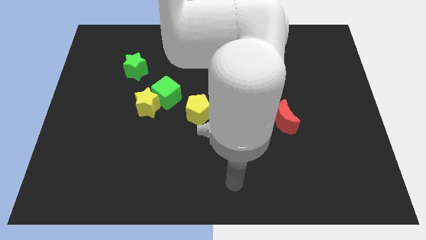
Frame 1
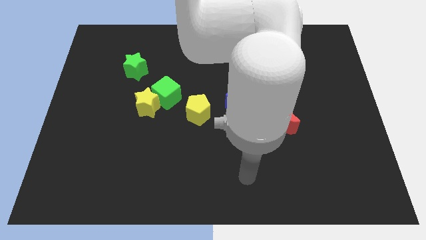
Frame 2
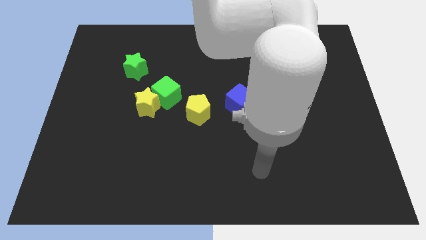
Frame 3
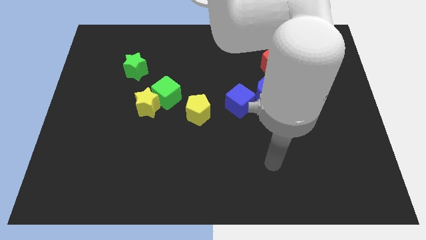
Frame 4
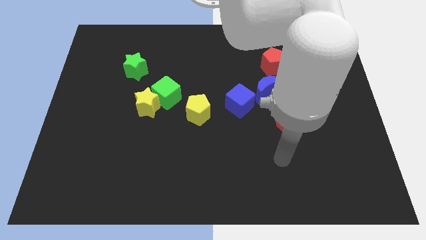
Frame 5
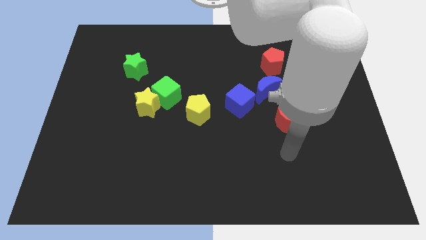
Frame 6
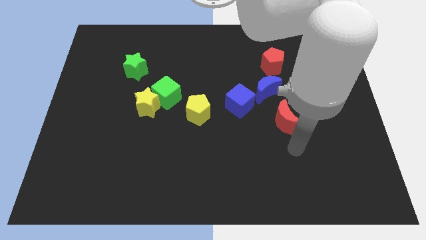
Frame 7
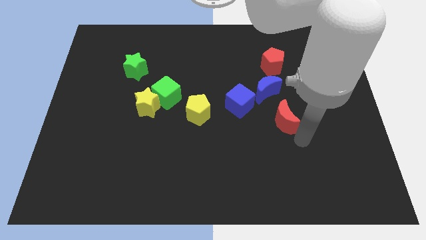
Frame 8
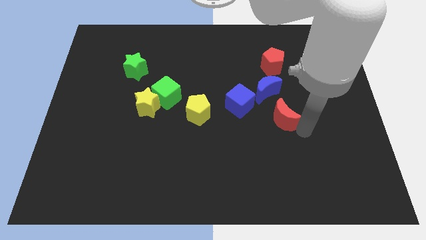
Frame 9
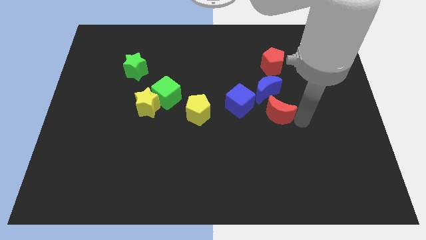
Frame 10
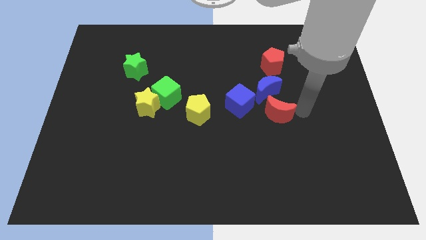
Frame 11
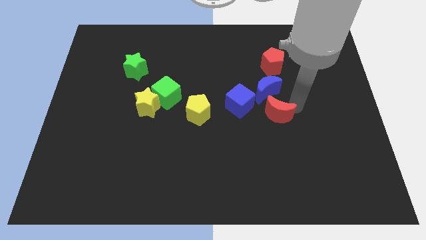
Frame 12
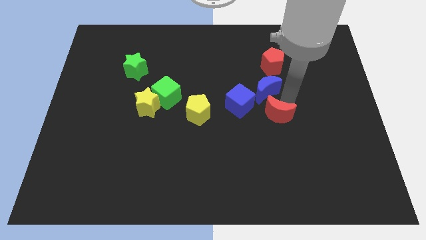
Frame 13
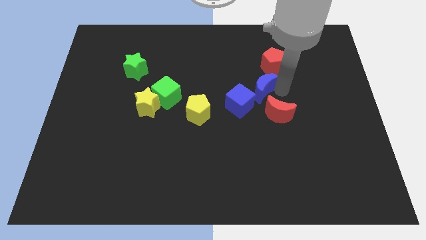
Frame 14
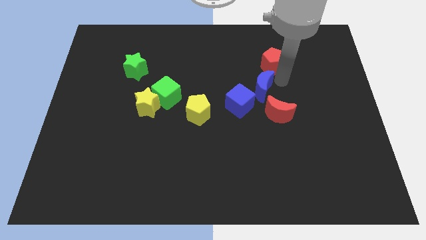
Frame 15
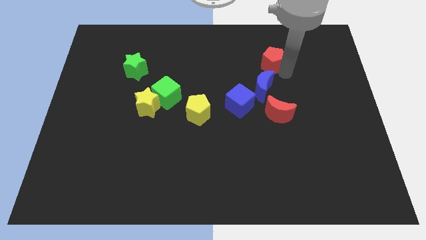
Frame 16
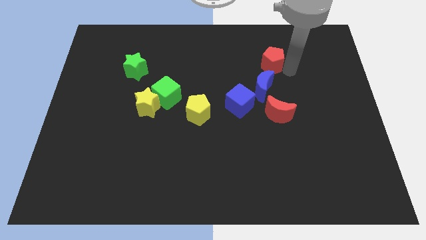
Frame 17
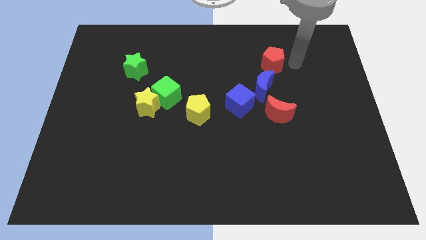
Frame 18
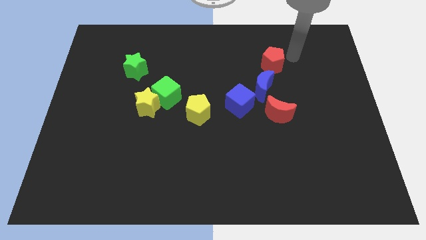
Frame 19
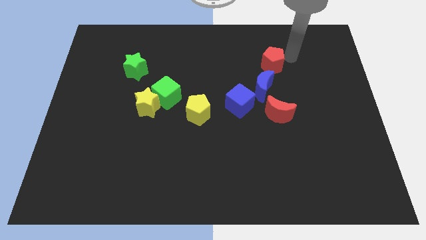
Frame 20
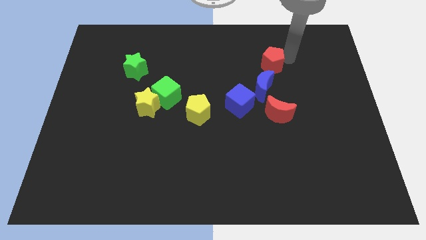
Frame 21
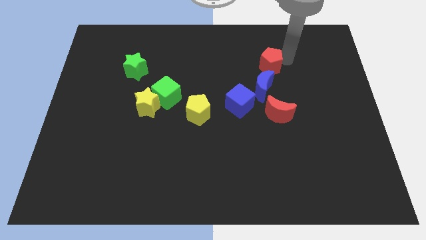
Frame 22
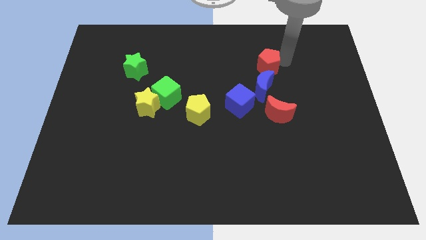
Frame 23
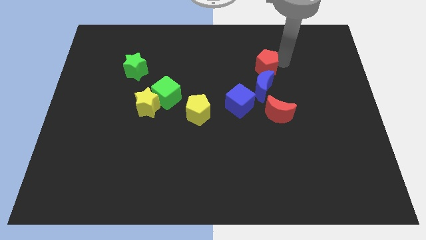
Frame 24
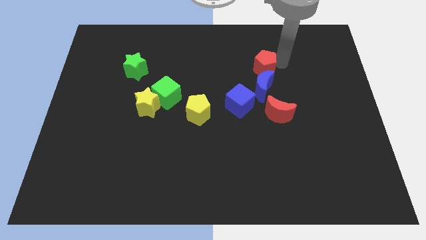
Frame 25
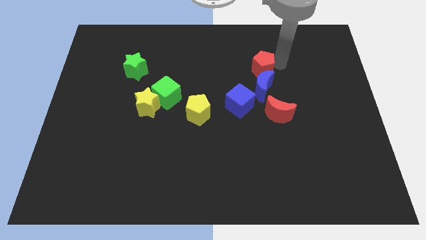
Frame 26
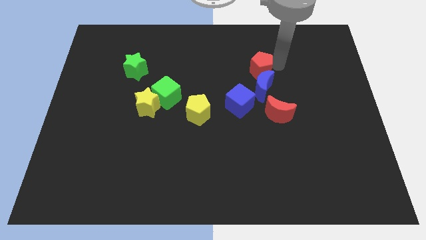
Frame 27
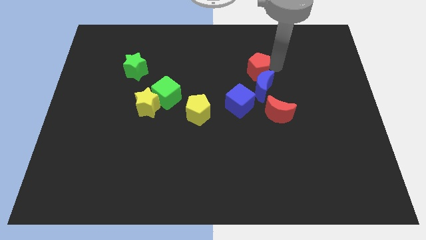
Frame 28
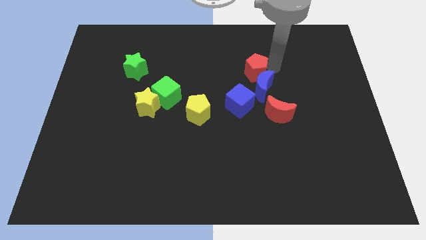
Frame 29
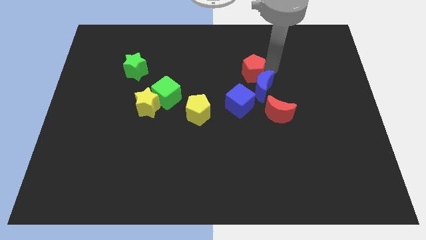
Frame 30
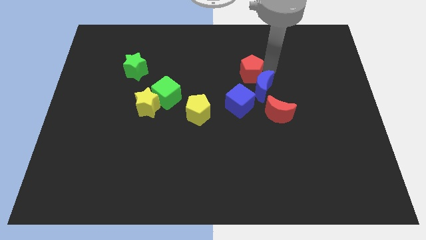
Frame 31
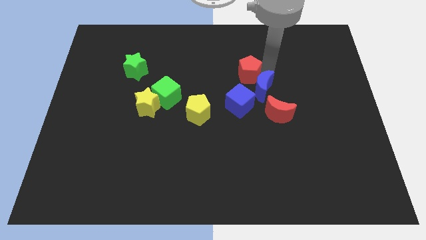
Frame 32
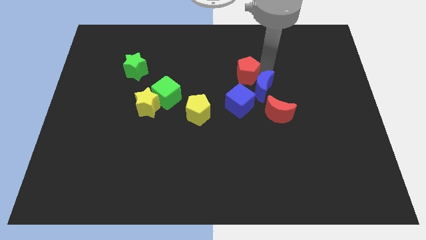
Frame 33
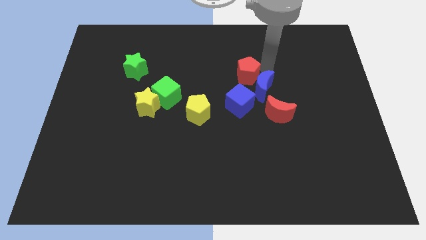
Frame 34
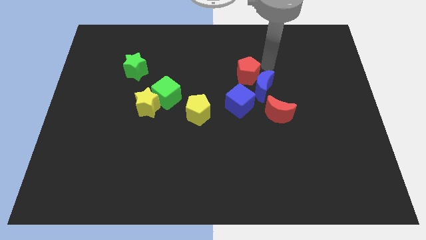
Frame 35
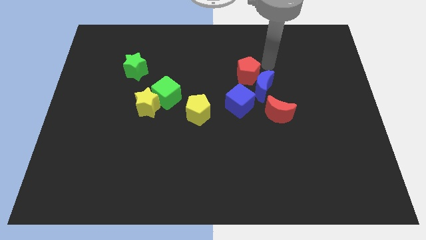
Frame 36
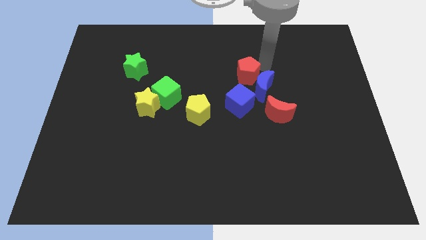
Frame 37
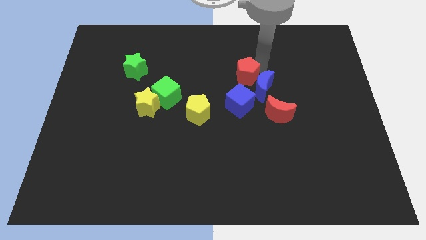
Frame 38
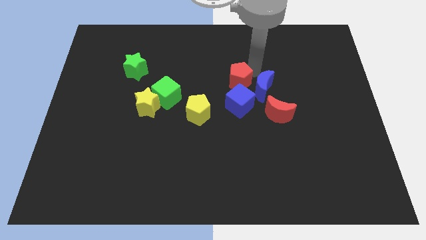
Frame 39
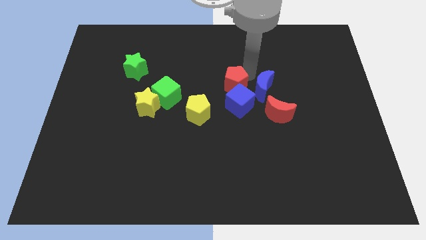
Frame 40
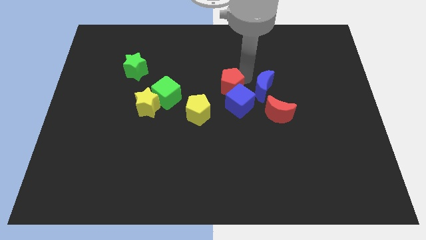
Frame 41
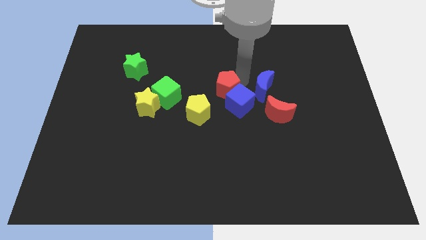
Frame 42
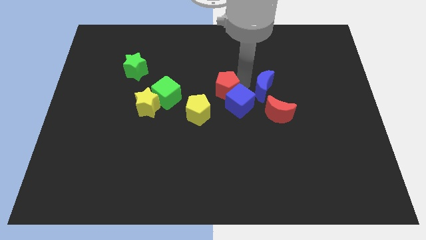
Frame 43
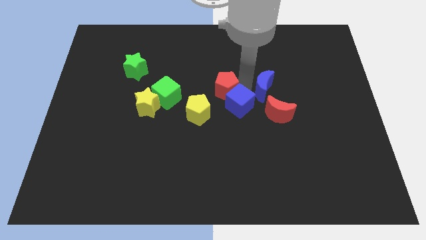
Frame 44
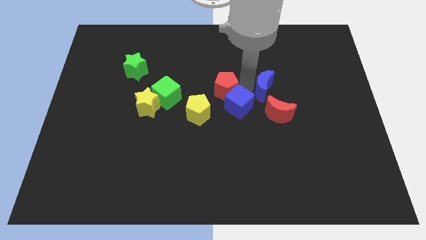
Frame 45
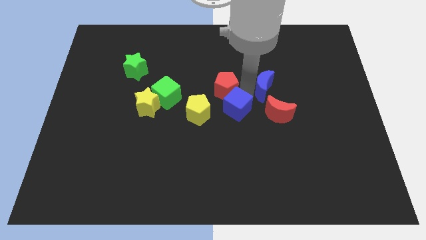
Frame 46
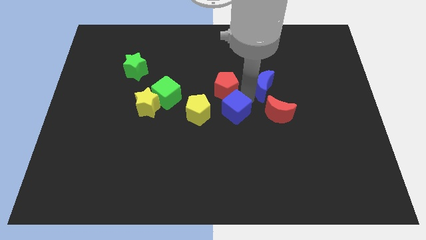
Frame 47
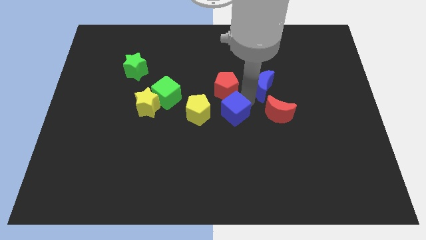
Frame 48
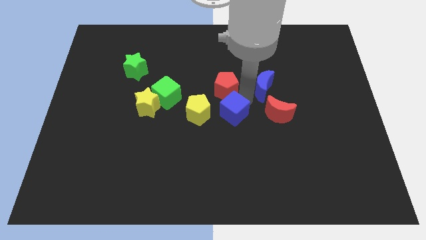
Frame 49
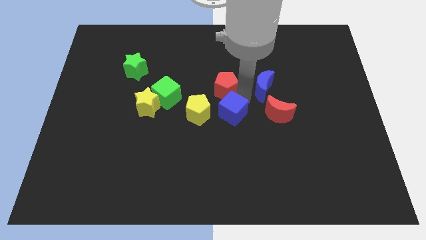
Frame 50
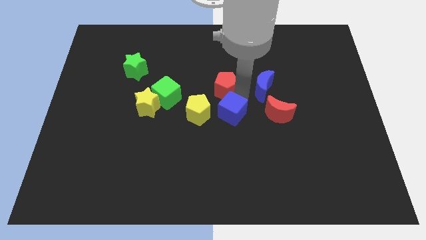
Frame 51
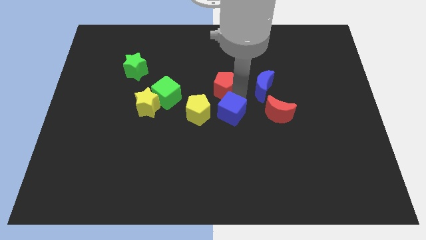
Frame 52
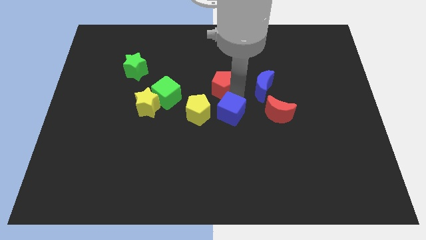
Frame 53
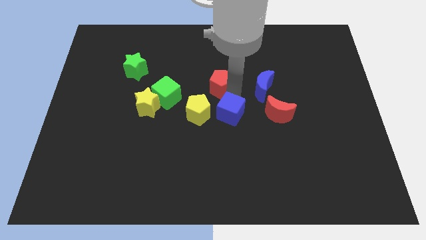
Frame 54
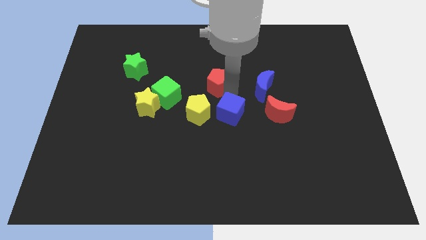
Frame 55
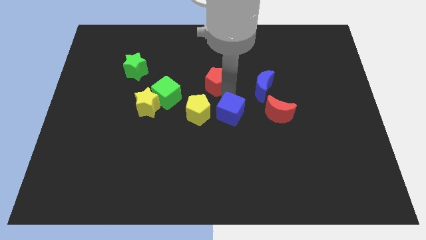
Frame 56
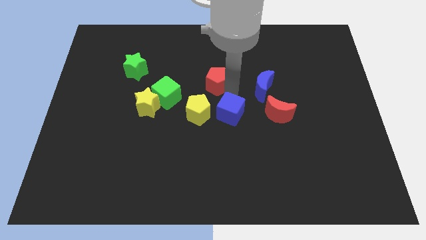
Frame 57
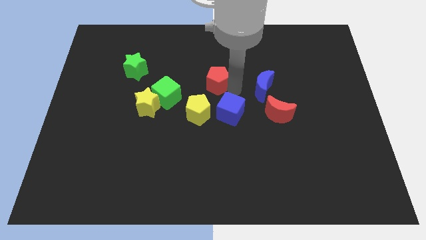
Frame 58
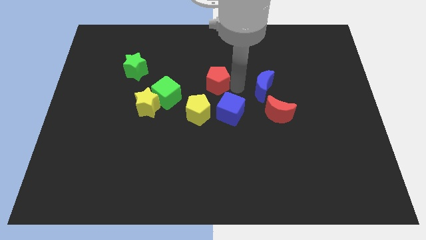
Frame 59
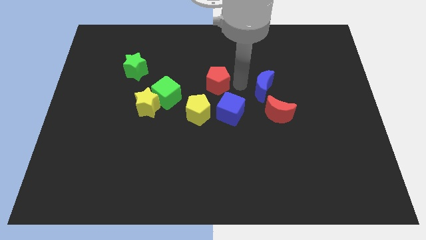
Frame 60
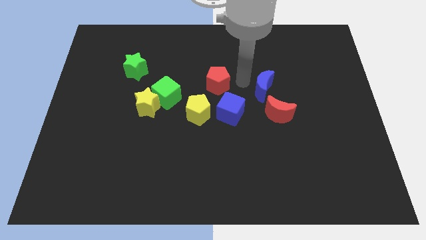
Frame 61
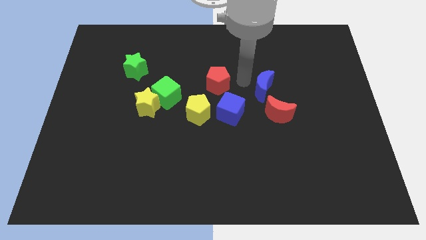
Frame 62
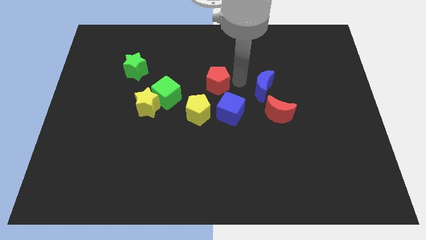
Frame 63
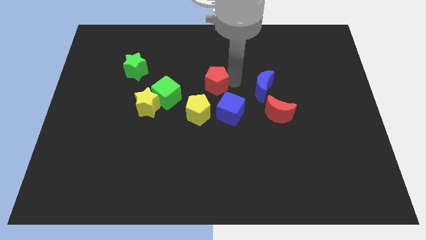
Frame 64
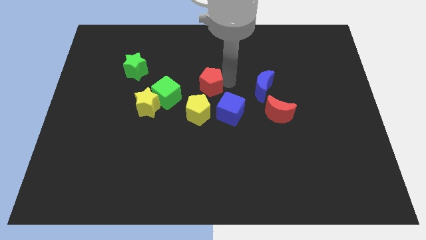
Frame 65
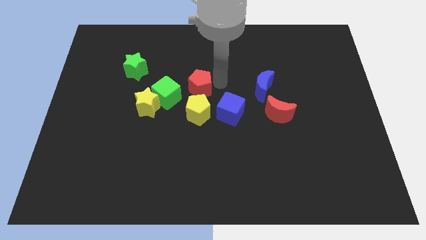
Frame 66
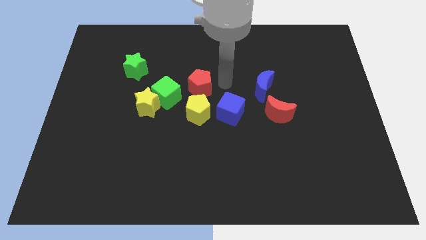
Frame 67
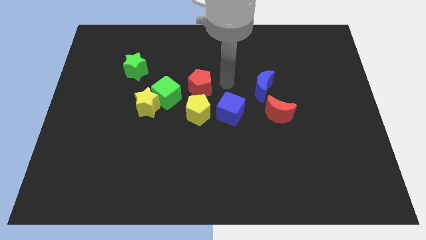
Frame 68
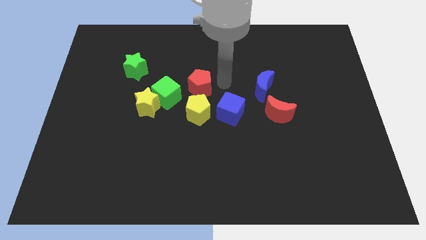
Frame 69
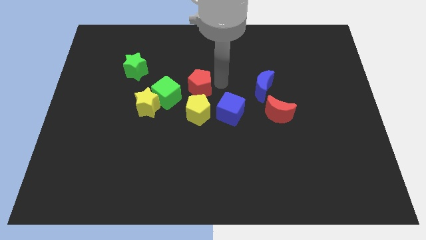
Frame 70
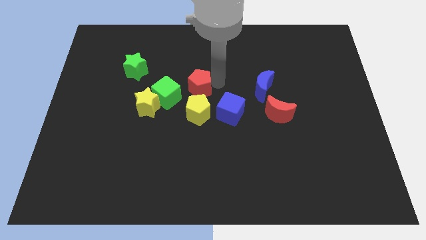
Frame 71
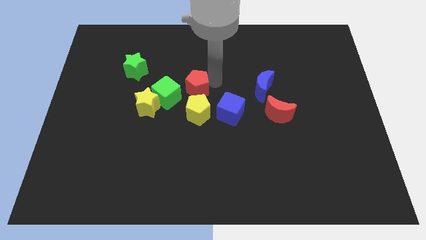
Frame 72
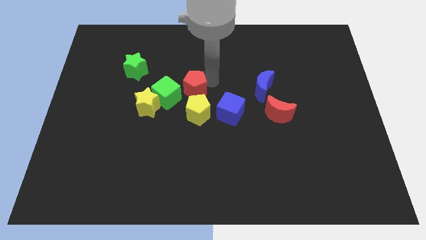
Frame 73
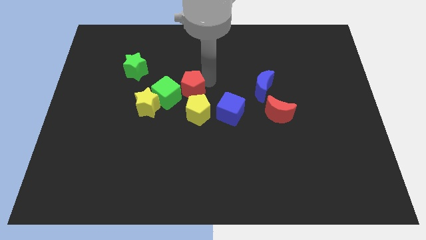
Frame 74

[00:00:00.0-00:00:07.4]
put the red pentagon to the top right side of the yellow star

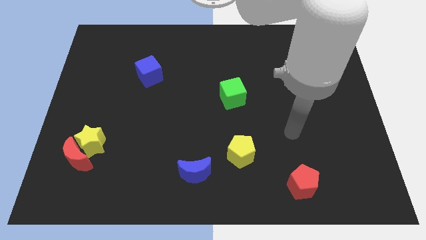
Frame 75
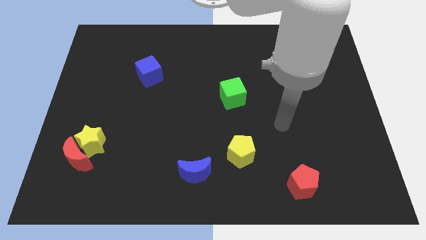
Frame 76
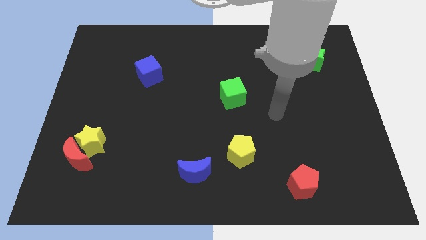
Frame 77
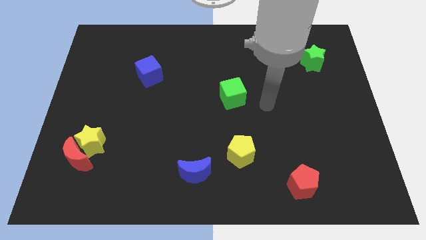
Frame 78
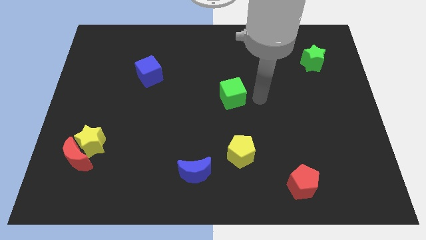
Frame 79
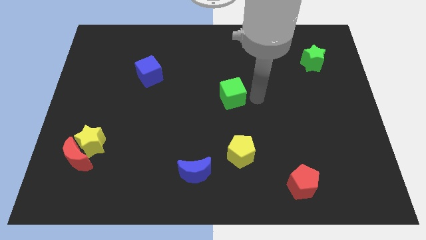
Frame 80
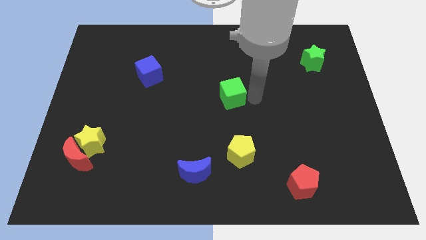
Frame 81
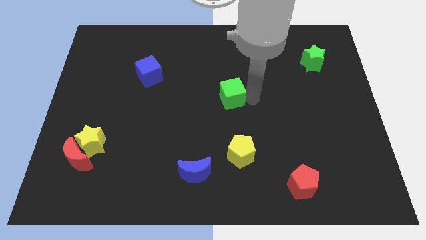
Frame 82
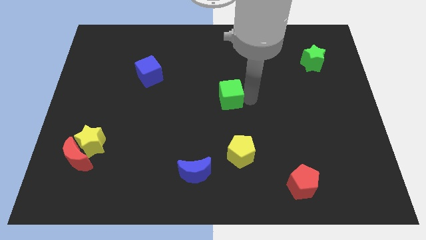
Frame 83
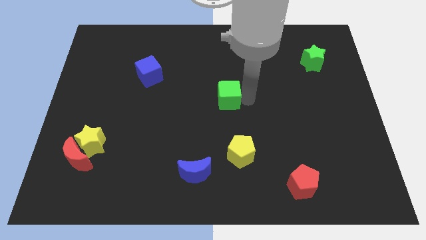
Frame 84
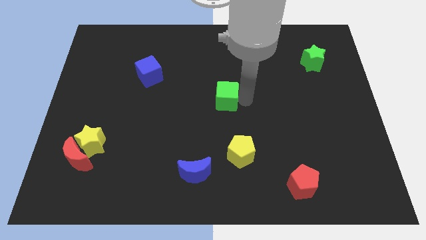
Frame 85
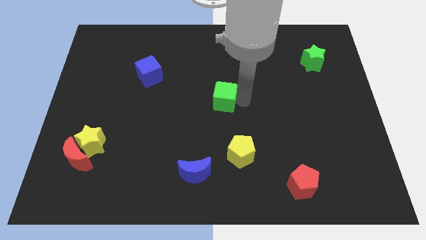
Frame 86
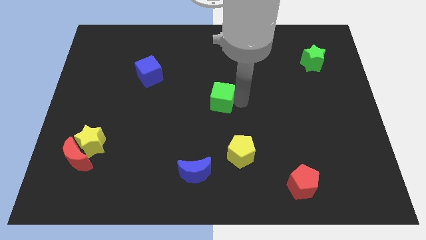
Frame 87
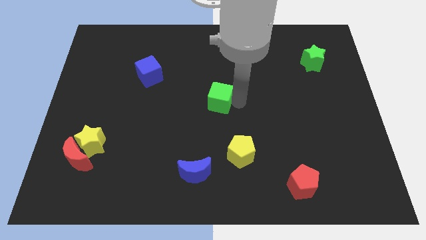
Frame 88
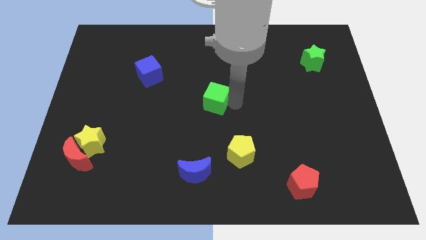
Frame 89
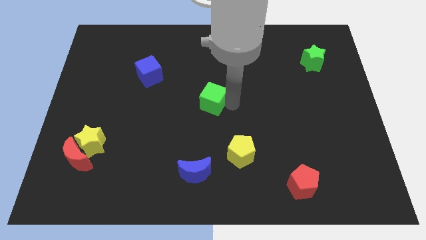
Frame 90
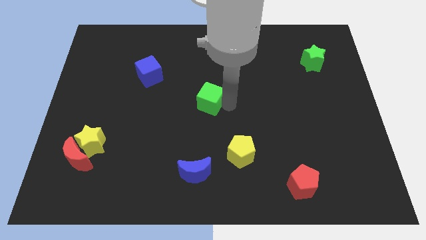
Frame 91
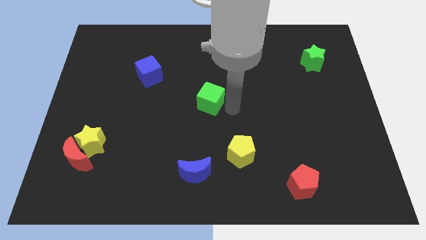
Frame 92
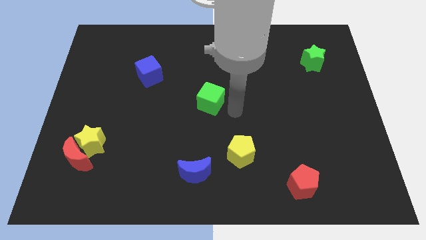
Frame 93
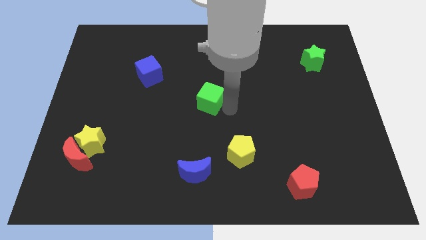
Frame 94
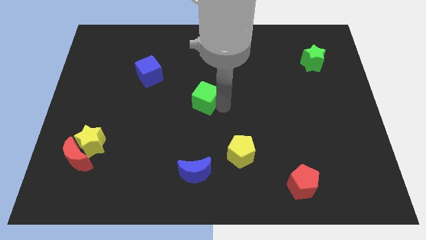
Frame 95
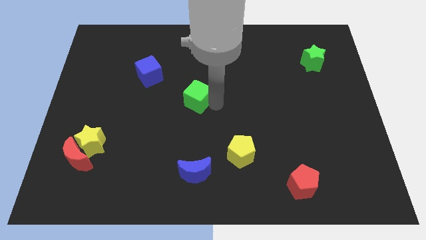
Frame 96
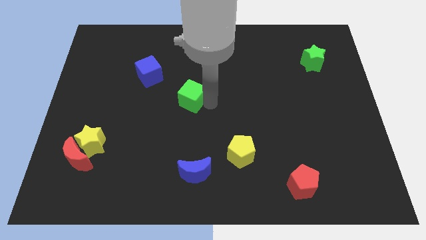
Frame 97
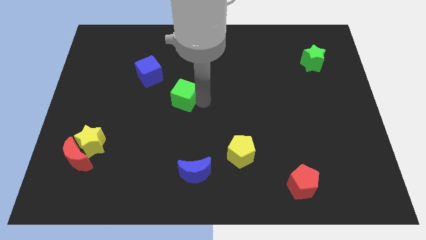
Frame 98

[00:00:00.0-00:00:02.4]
slide the green cube diagonally down and to the right of the blue cube
